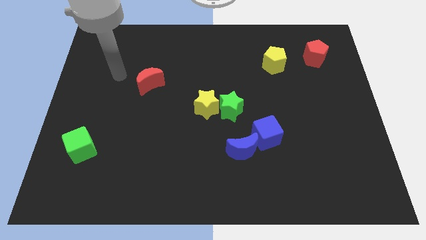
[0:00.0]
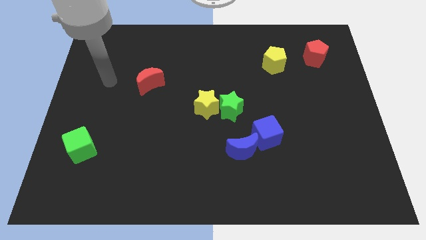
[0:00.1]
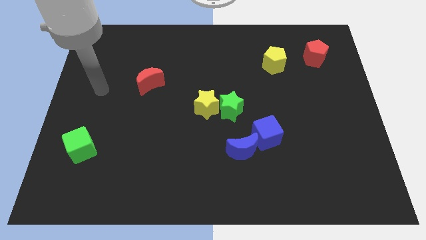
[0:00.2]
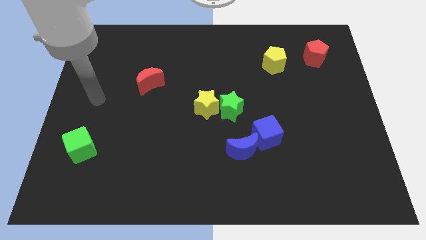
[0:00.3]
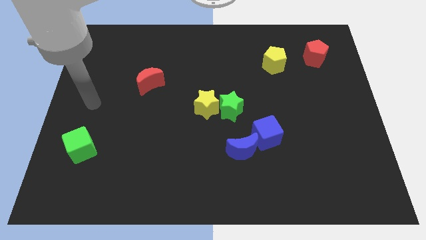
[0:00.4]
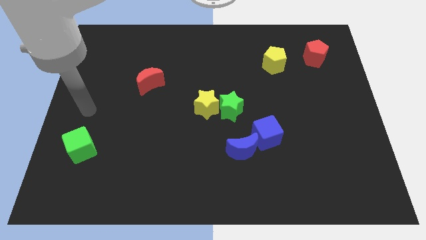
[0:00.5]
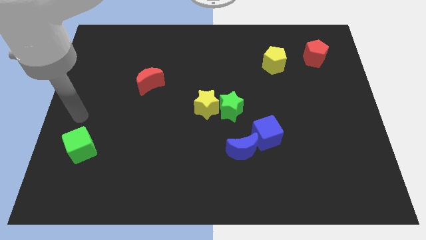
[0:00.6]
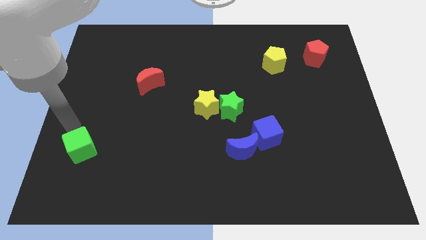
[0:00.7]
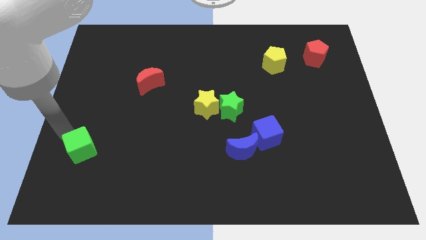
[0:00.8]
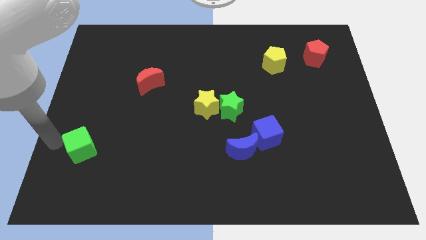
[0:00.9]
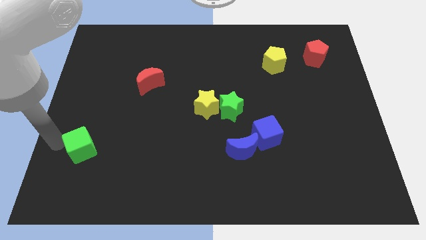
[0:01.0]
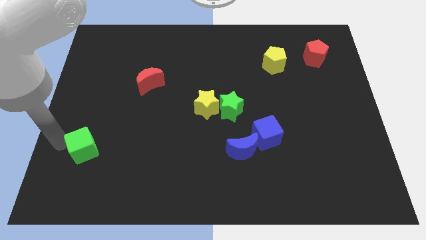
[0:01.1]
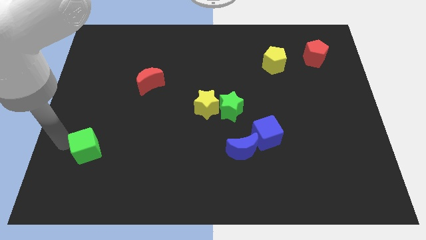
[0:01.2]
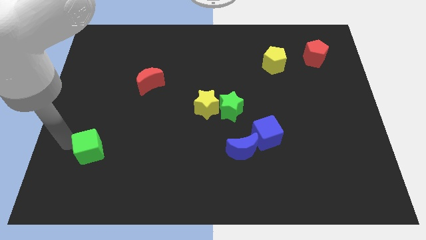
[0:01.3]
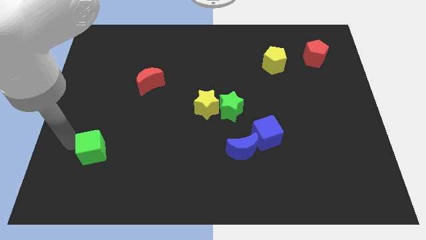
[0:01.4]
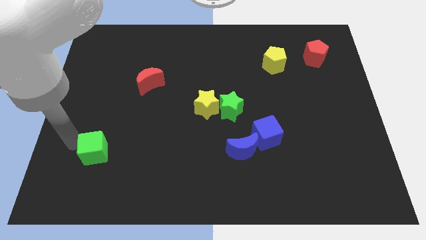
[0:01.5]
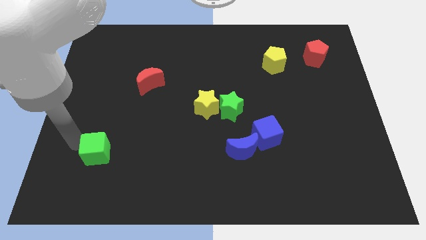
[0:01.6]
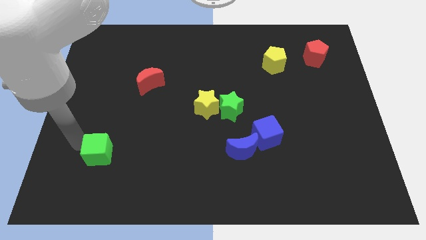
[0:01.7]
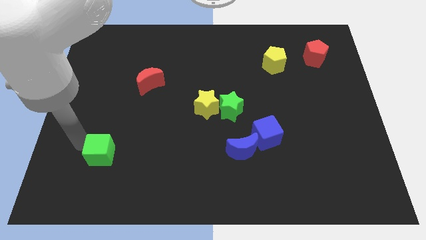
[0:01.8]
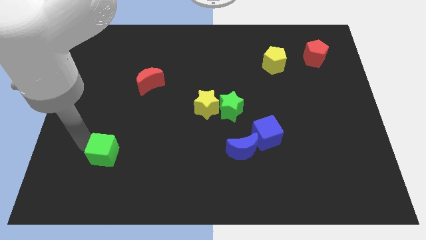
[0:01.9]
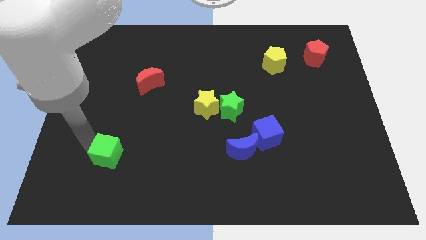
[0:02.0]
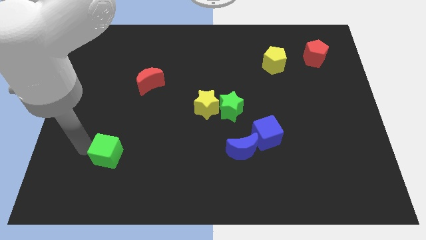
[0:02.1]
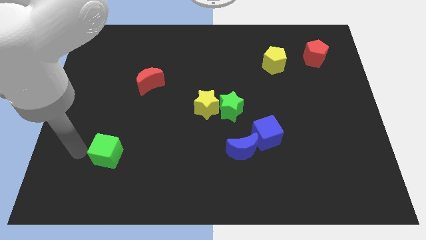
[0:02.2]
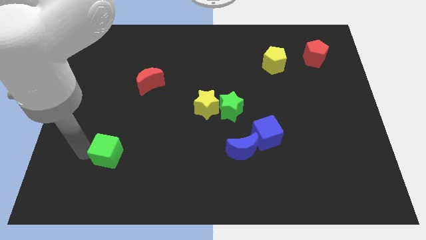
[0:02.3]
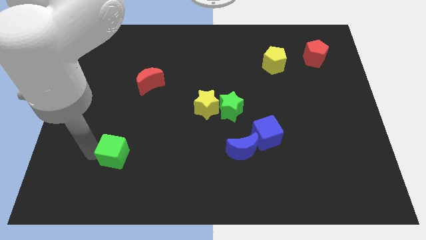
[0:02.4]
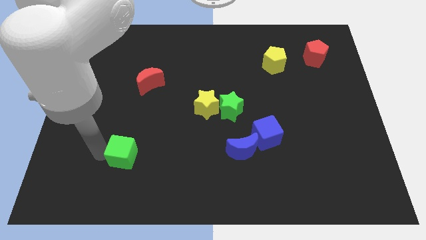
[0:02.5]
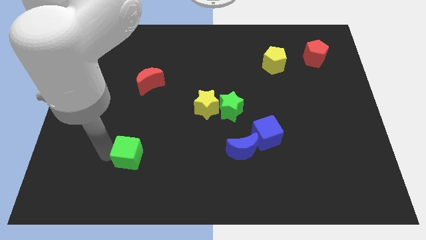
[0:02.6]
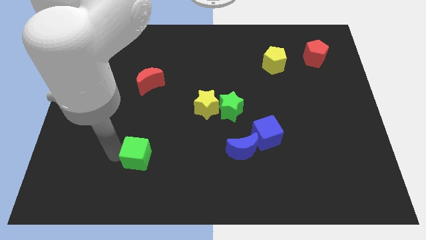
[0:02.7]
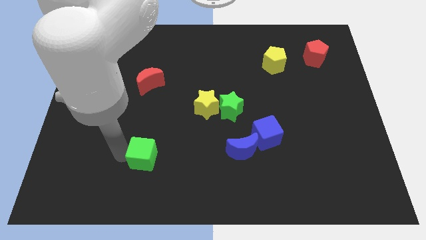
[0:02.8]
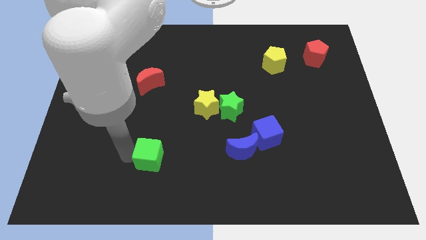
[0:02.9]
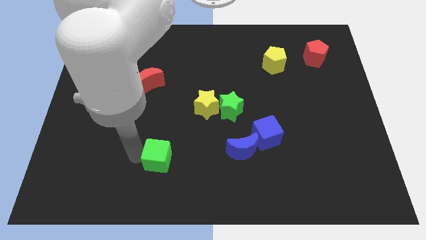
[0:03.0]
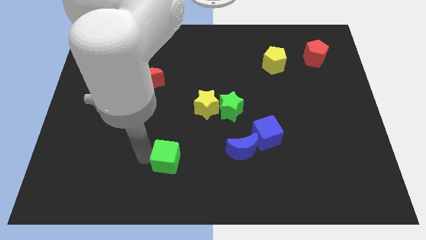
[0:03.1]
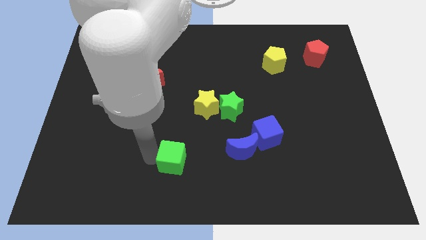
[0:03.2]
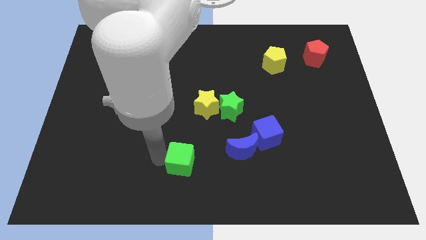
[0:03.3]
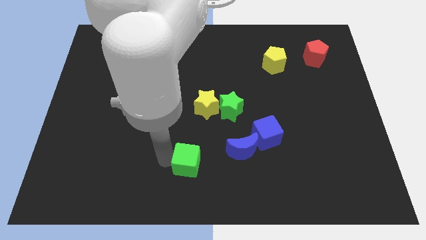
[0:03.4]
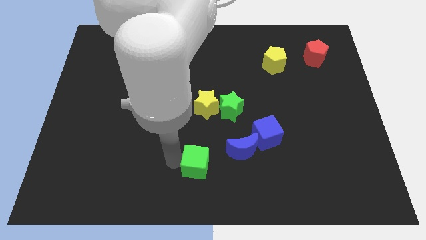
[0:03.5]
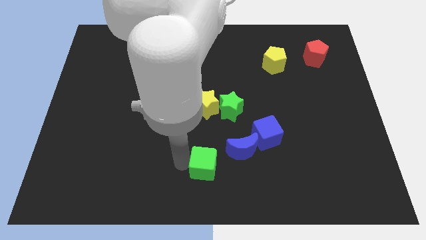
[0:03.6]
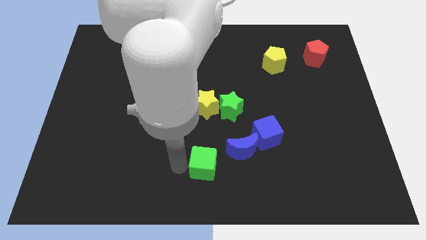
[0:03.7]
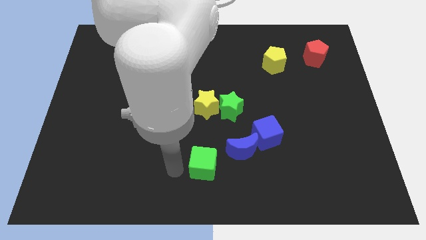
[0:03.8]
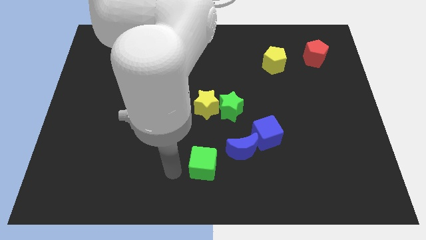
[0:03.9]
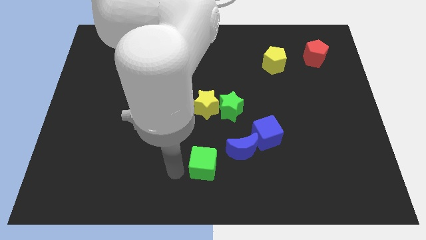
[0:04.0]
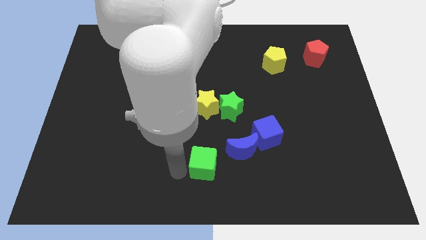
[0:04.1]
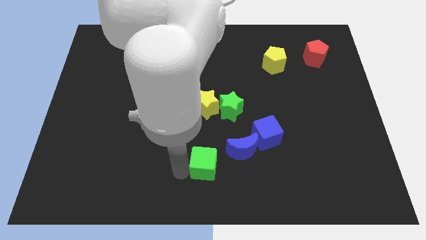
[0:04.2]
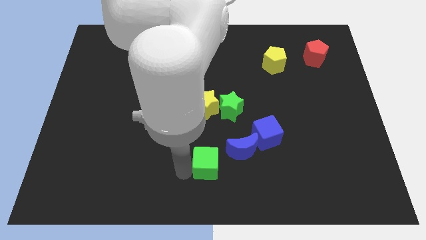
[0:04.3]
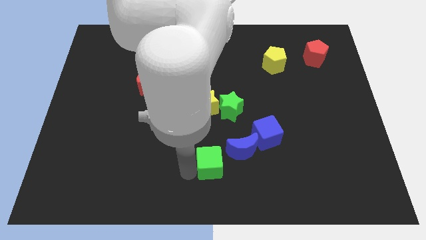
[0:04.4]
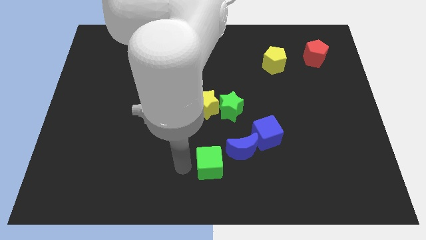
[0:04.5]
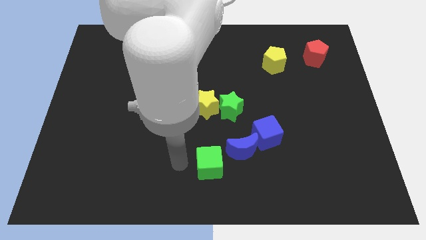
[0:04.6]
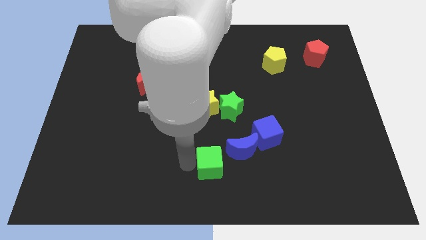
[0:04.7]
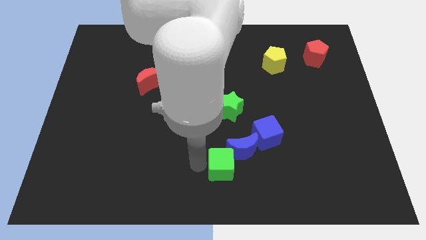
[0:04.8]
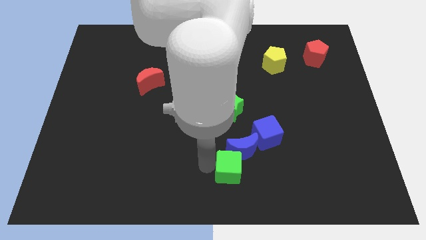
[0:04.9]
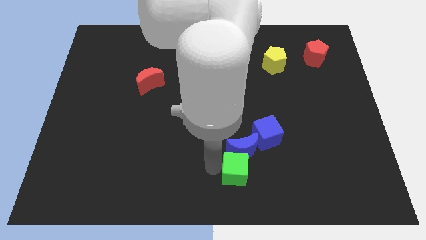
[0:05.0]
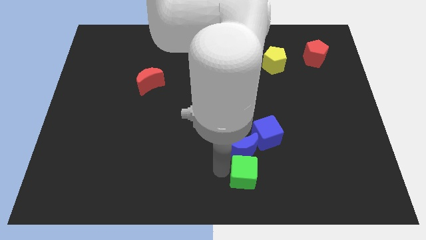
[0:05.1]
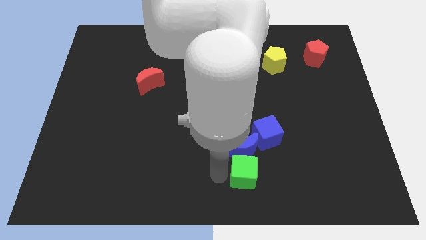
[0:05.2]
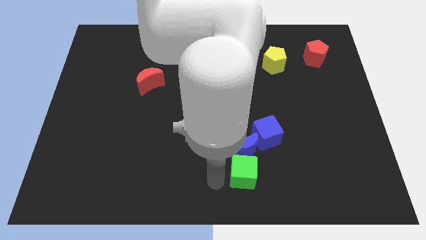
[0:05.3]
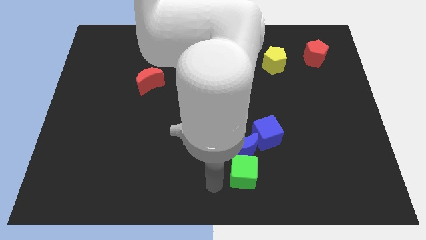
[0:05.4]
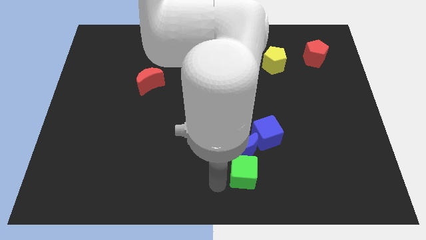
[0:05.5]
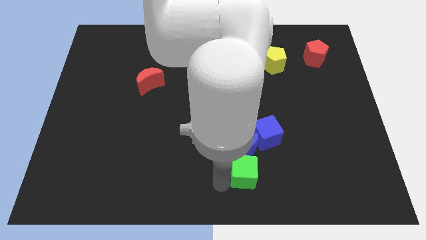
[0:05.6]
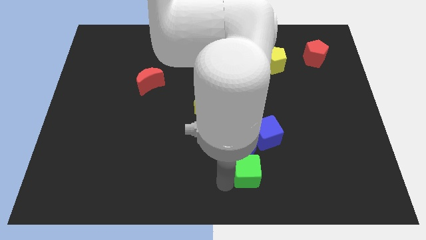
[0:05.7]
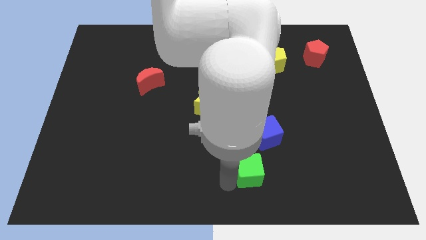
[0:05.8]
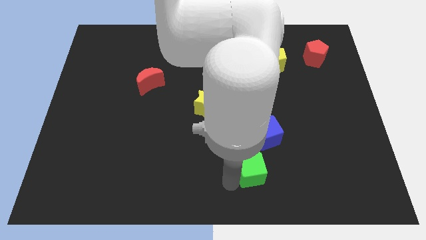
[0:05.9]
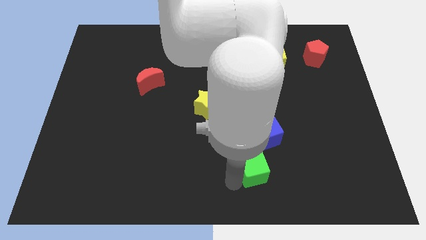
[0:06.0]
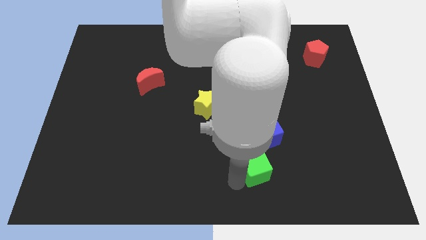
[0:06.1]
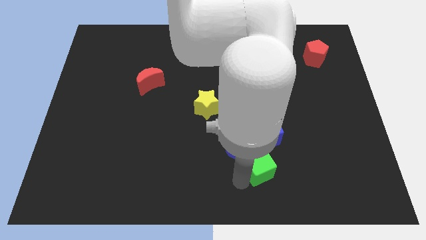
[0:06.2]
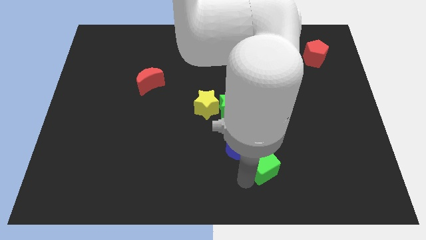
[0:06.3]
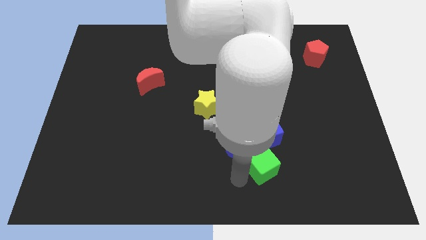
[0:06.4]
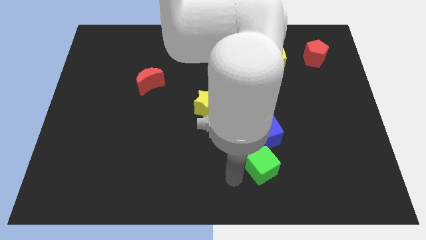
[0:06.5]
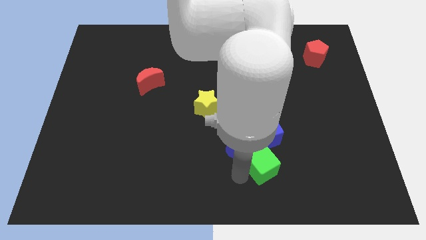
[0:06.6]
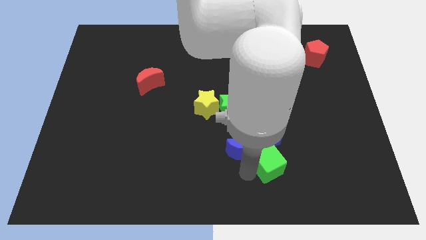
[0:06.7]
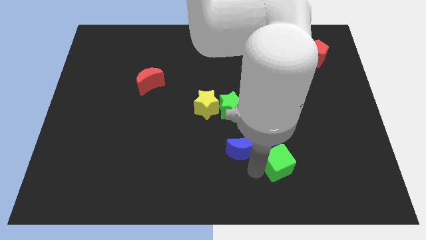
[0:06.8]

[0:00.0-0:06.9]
push the green cube to the bottom right of the blue cube

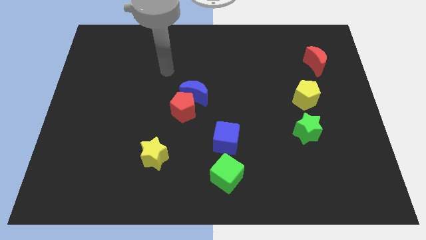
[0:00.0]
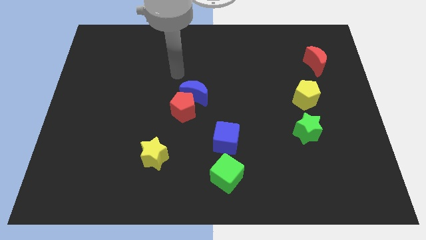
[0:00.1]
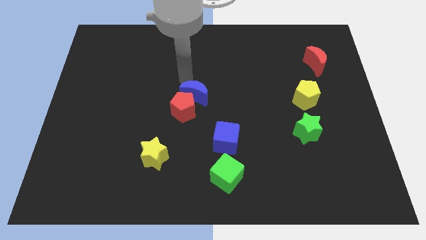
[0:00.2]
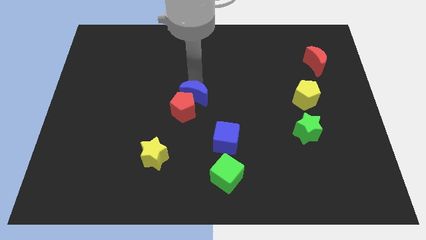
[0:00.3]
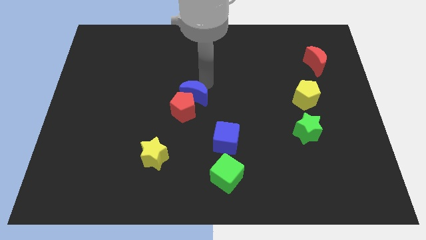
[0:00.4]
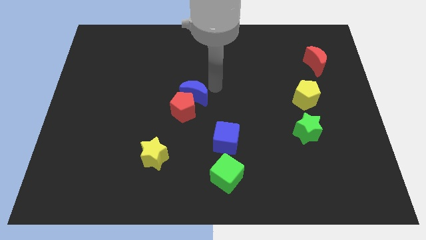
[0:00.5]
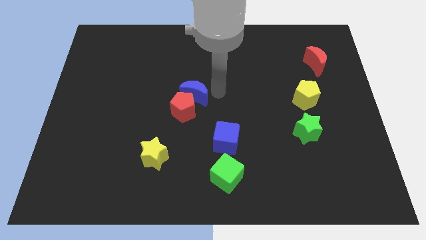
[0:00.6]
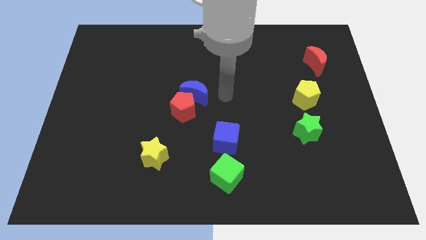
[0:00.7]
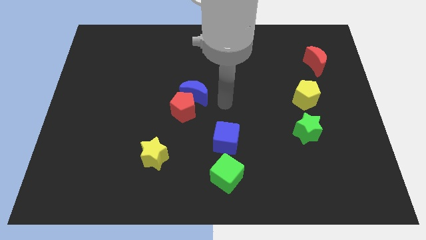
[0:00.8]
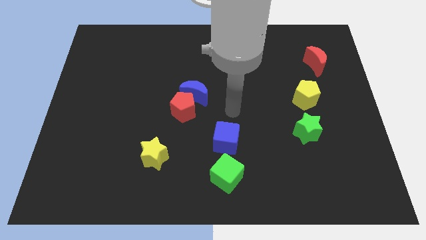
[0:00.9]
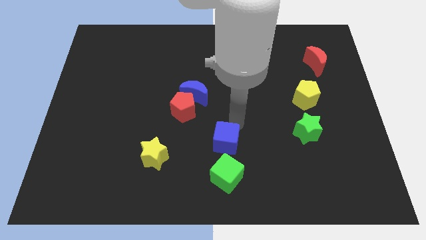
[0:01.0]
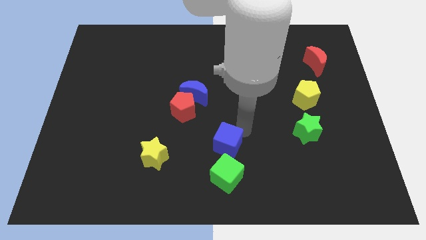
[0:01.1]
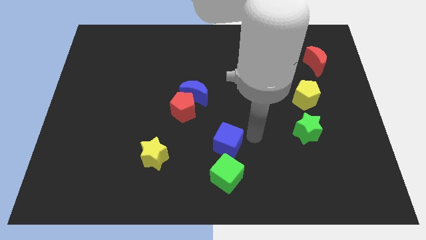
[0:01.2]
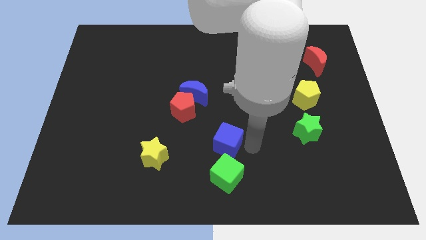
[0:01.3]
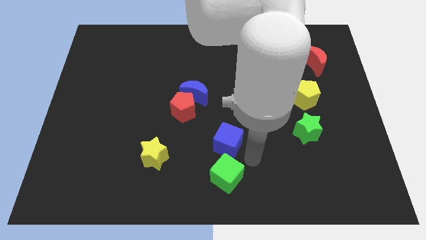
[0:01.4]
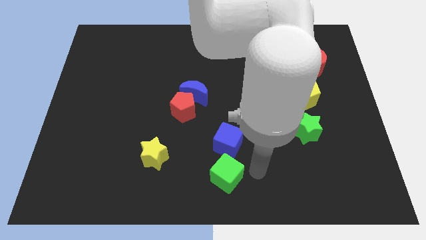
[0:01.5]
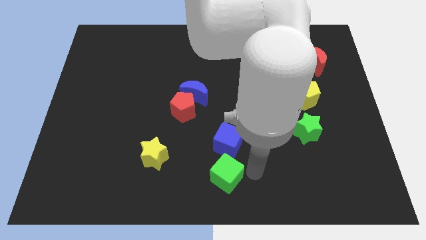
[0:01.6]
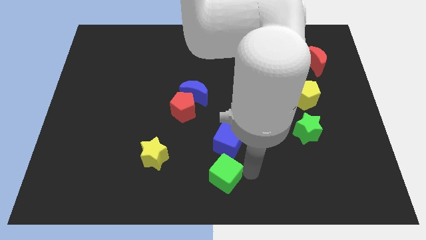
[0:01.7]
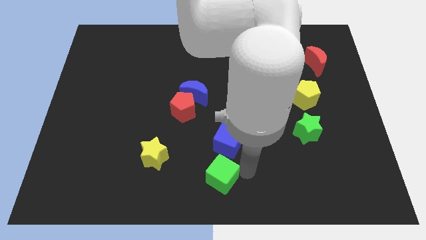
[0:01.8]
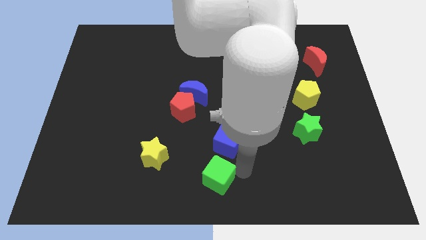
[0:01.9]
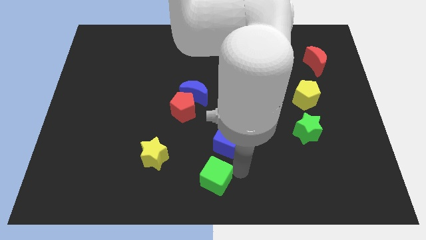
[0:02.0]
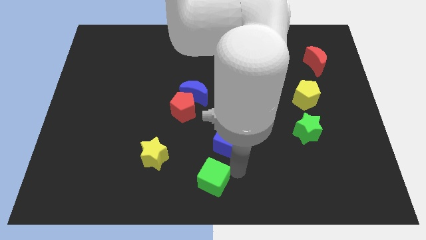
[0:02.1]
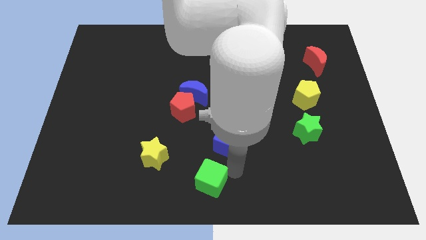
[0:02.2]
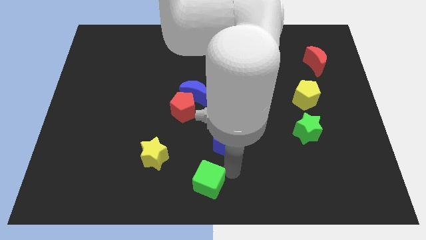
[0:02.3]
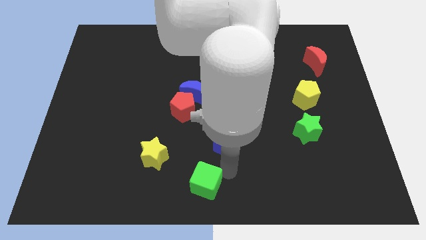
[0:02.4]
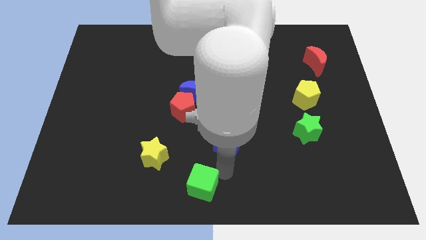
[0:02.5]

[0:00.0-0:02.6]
slide the green cube diagonally down and to the right of the yellow star
